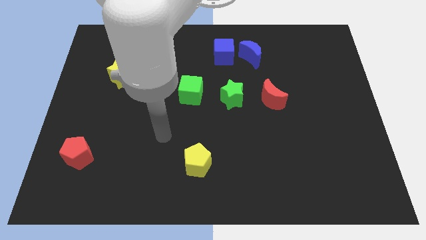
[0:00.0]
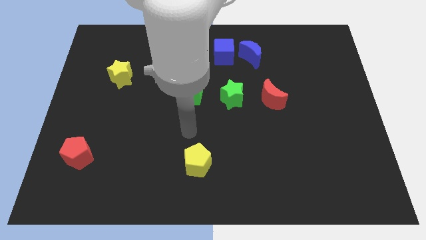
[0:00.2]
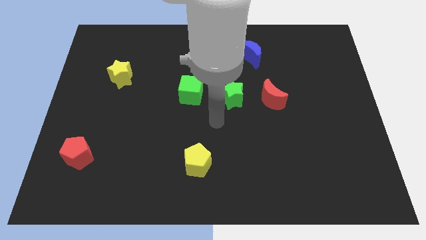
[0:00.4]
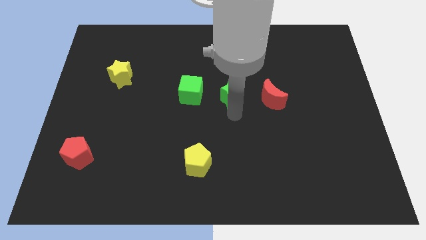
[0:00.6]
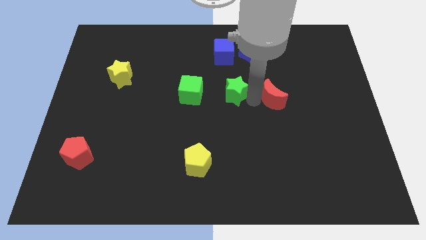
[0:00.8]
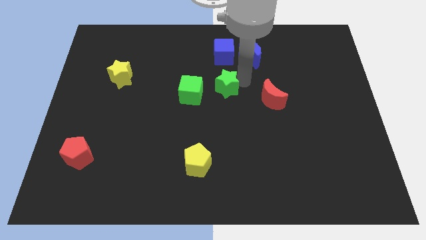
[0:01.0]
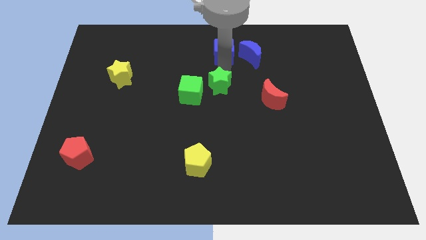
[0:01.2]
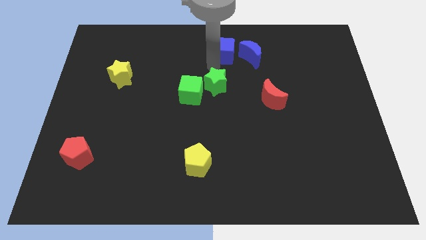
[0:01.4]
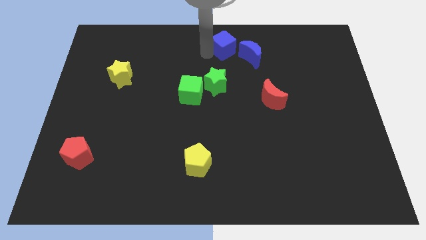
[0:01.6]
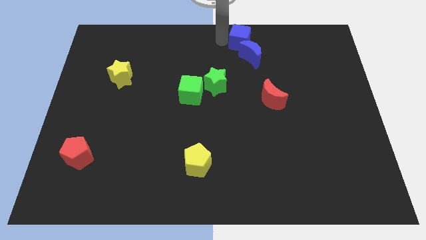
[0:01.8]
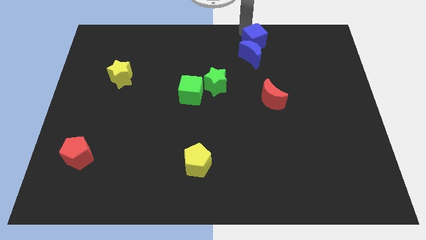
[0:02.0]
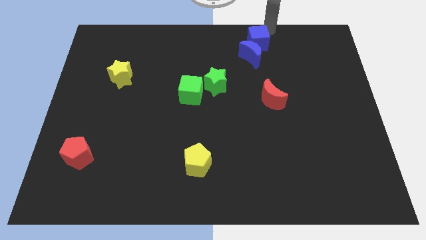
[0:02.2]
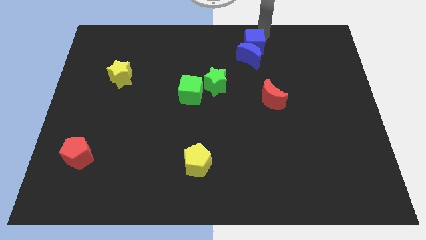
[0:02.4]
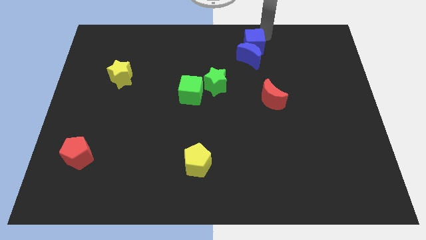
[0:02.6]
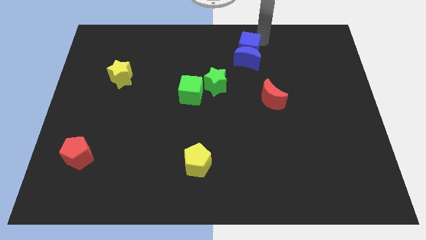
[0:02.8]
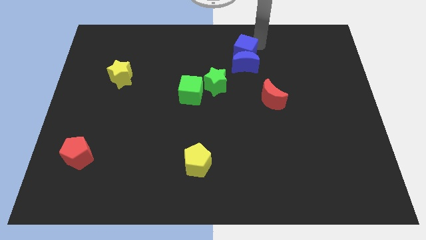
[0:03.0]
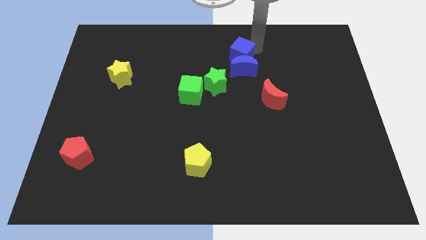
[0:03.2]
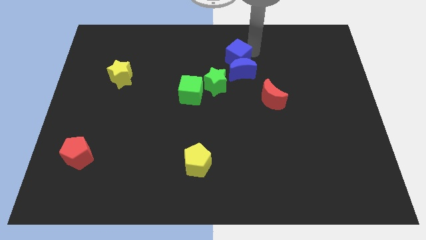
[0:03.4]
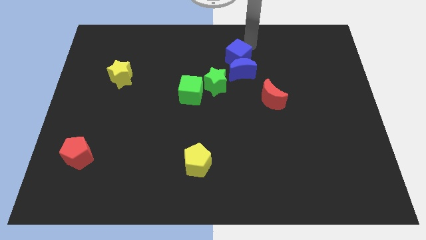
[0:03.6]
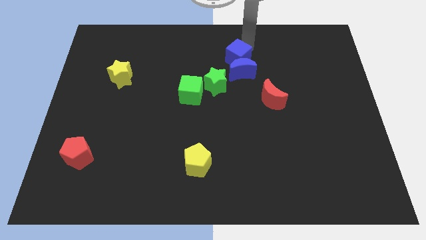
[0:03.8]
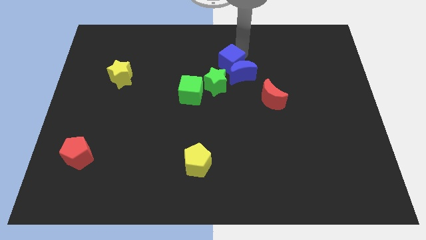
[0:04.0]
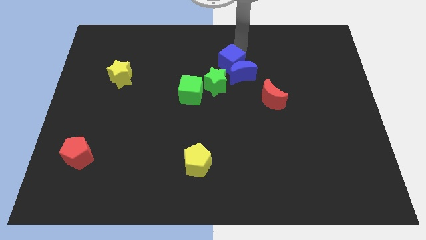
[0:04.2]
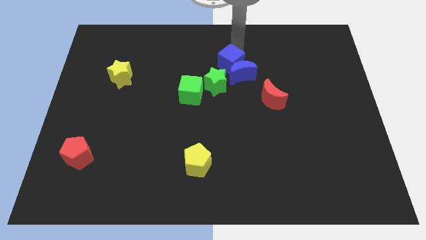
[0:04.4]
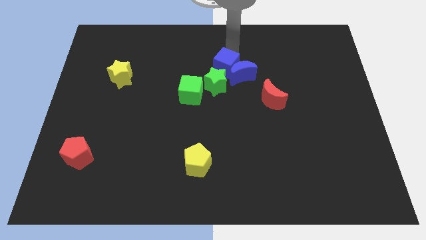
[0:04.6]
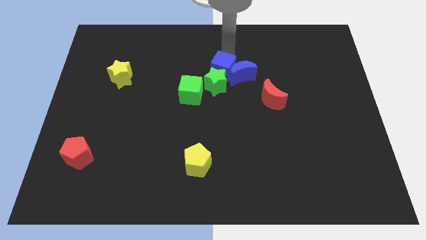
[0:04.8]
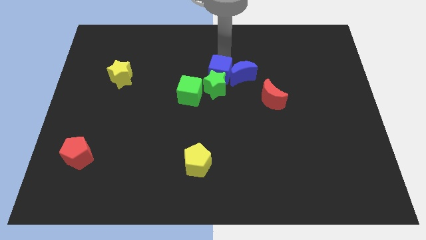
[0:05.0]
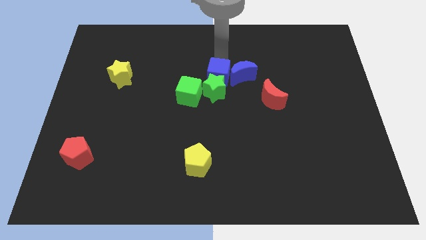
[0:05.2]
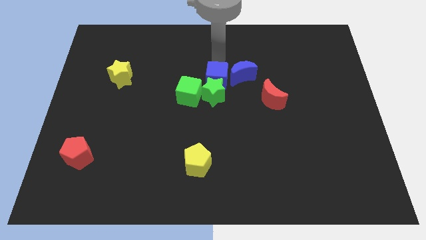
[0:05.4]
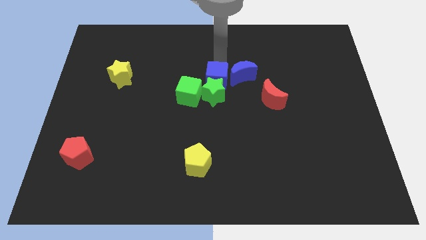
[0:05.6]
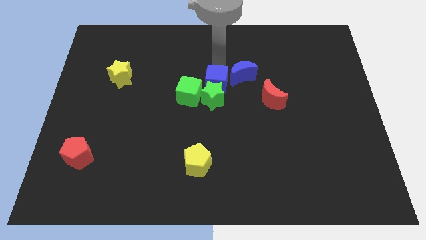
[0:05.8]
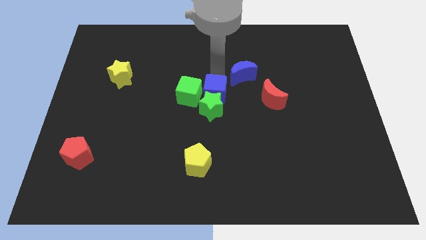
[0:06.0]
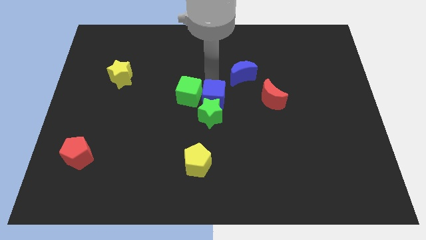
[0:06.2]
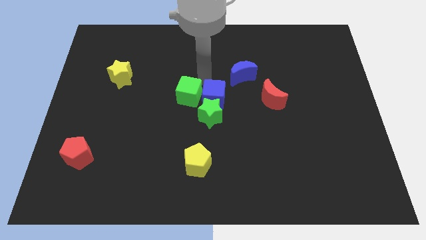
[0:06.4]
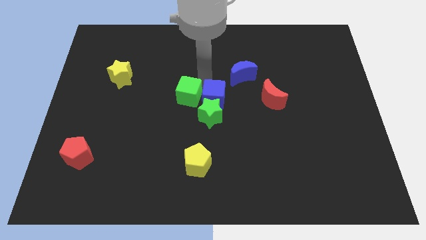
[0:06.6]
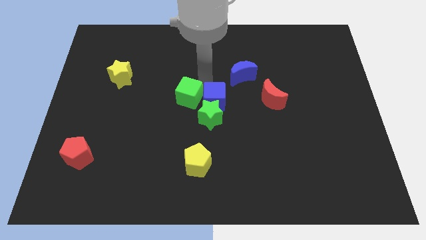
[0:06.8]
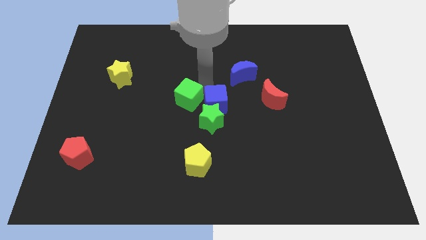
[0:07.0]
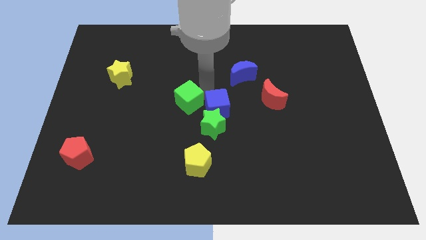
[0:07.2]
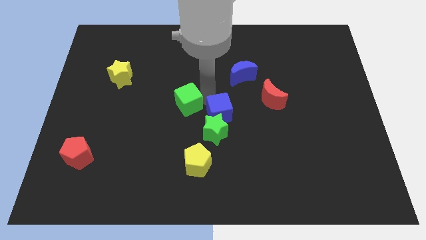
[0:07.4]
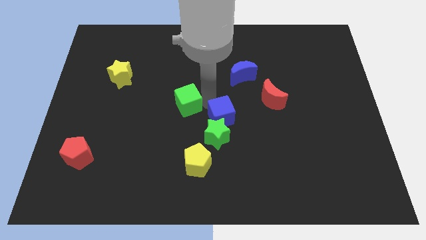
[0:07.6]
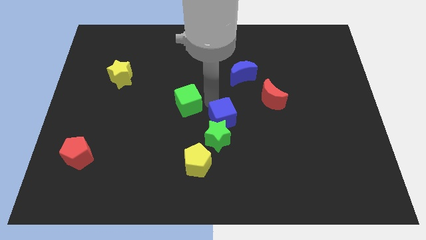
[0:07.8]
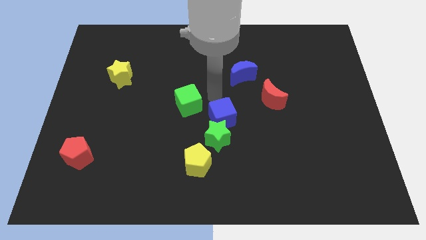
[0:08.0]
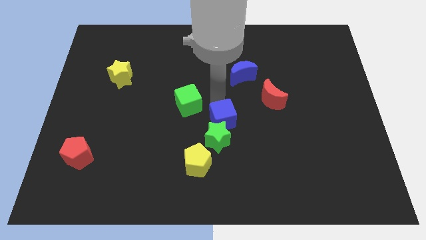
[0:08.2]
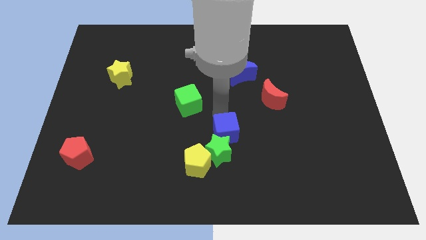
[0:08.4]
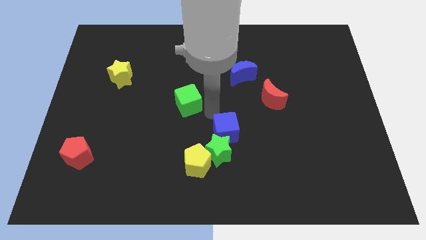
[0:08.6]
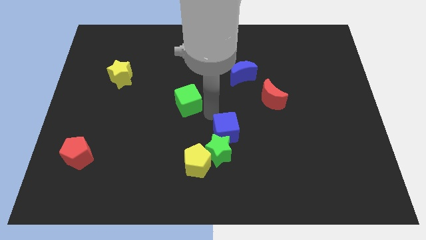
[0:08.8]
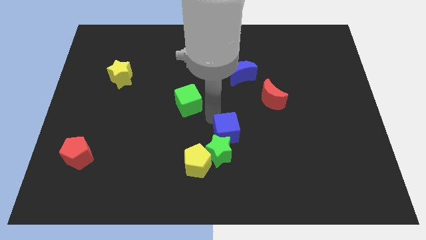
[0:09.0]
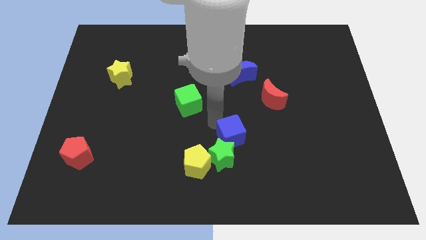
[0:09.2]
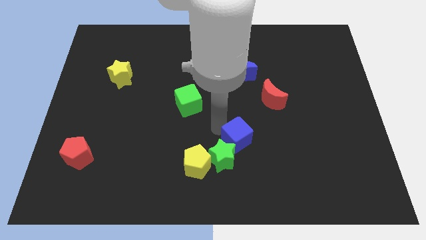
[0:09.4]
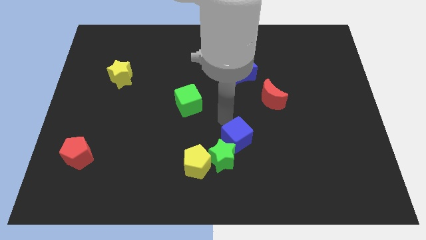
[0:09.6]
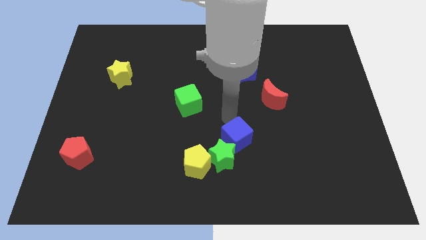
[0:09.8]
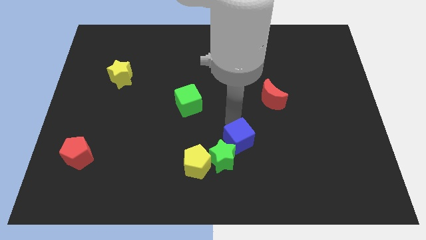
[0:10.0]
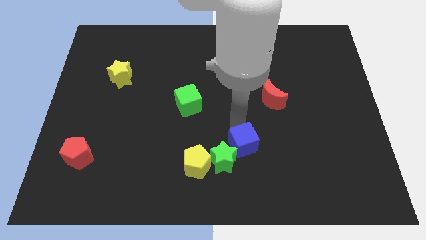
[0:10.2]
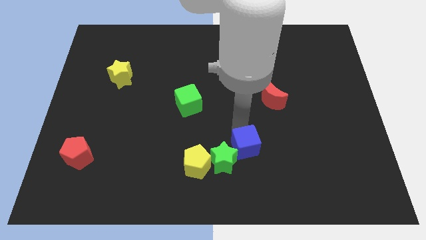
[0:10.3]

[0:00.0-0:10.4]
put the blue cube just right of the yellow pentagon

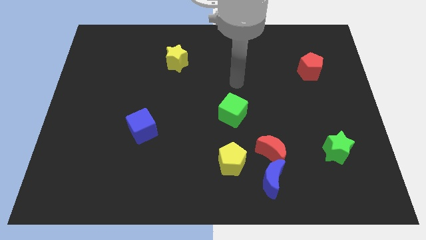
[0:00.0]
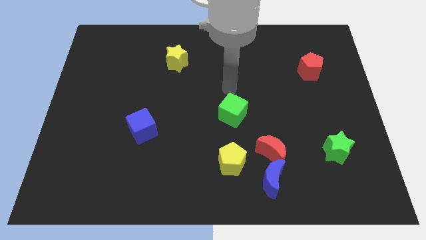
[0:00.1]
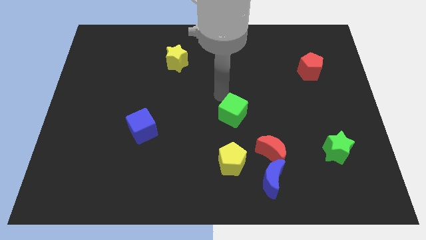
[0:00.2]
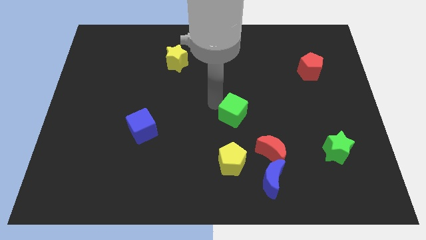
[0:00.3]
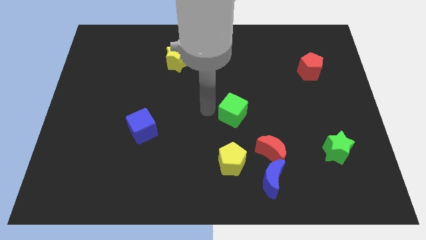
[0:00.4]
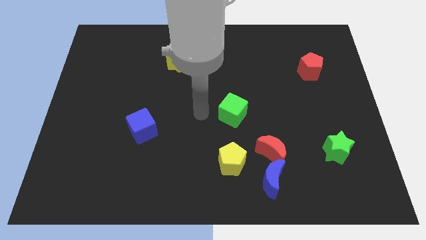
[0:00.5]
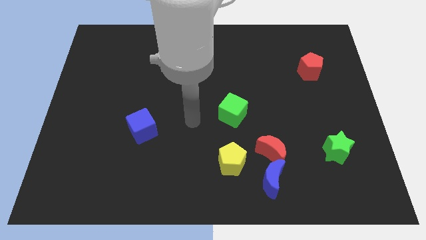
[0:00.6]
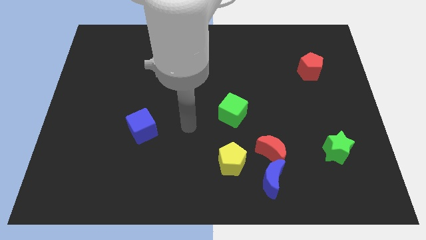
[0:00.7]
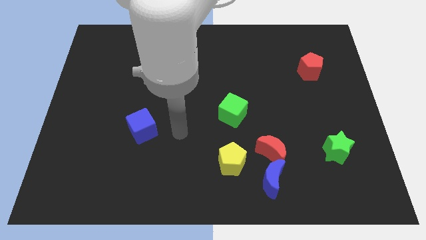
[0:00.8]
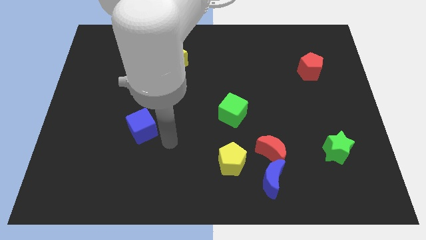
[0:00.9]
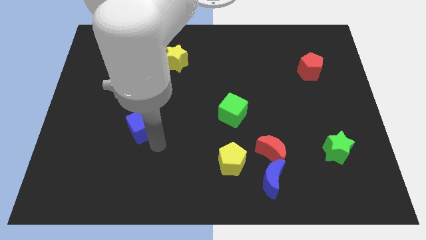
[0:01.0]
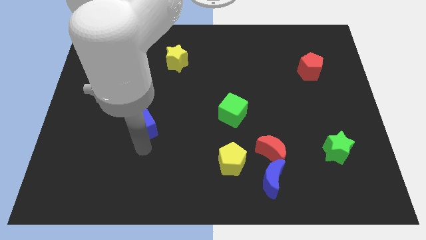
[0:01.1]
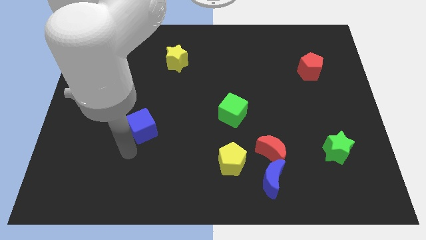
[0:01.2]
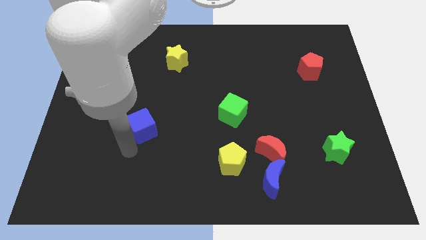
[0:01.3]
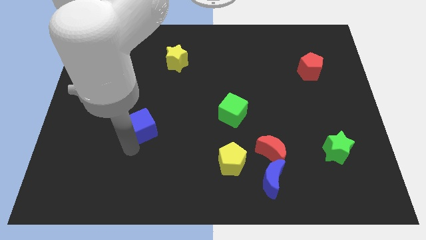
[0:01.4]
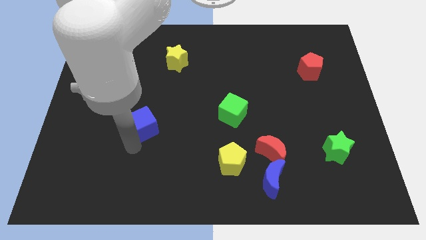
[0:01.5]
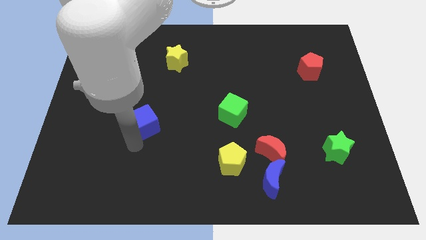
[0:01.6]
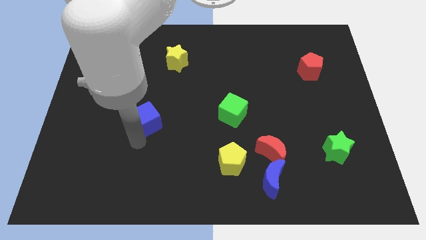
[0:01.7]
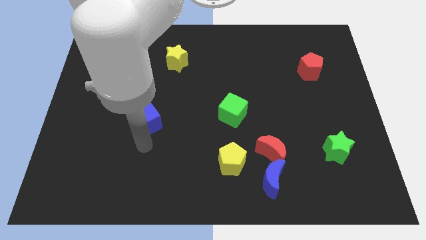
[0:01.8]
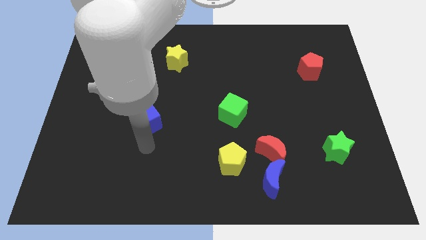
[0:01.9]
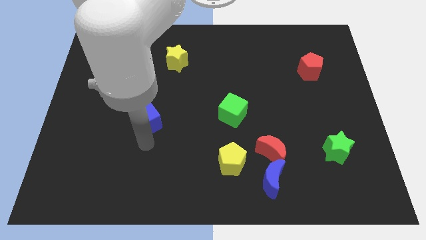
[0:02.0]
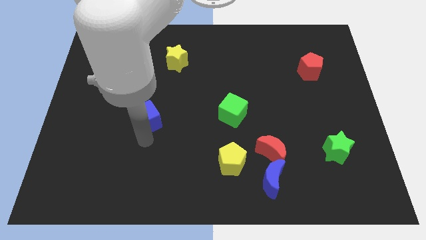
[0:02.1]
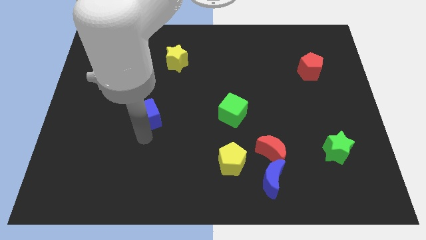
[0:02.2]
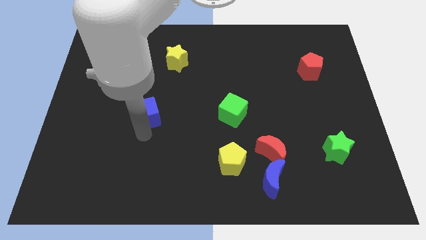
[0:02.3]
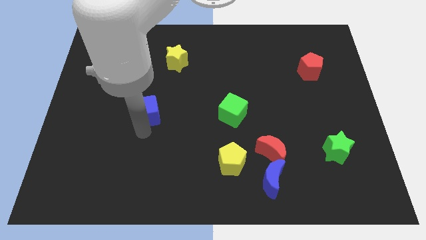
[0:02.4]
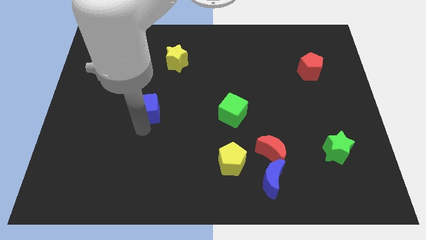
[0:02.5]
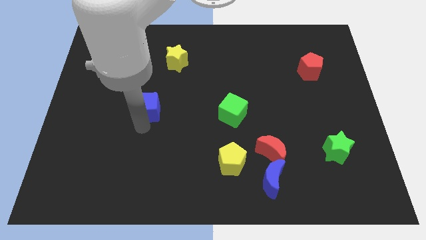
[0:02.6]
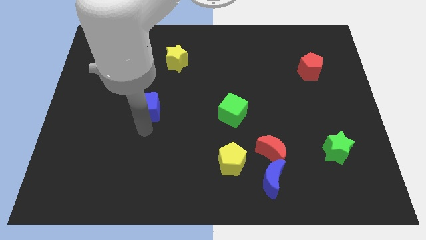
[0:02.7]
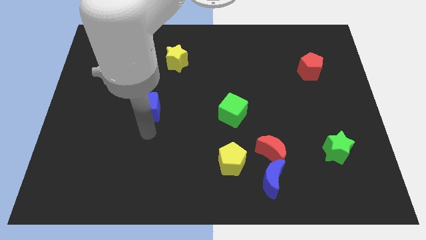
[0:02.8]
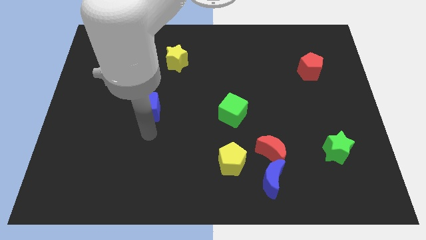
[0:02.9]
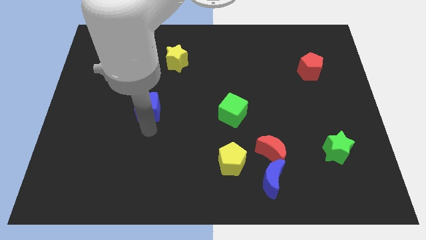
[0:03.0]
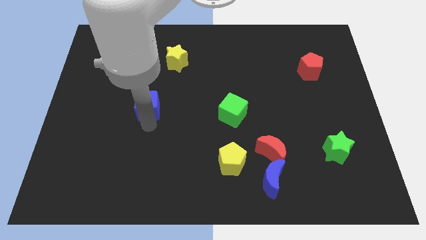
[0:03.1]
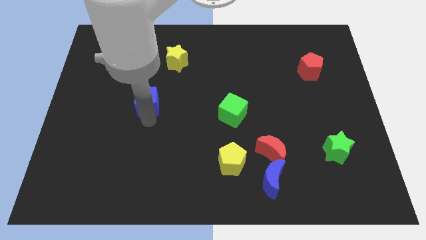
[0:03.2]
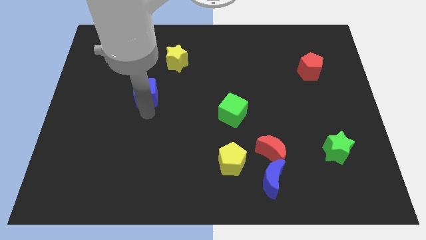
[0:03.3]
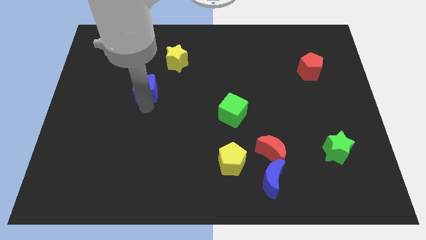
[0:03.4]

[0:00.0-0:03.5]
slide the blue cube to the bottom left side of the yellow star
